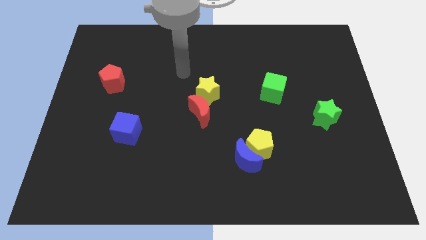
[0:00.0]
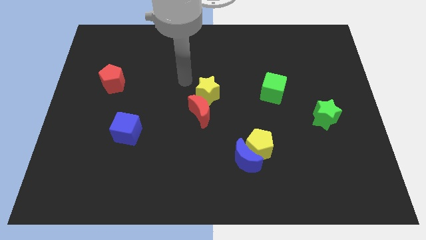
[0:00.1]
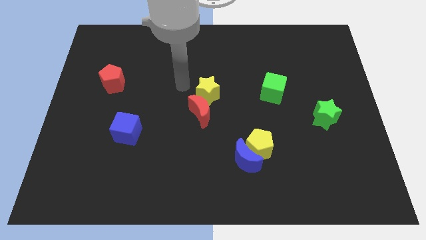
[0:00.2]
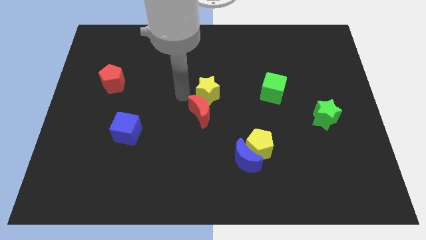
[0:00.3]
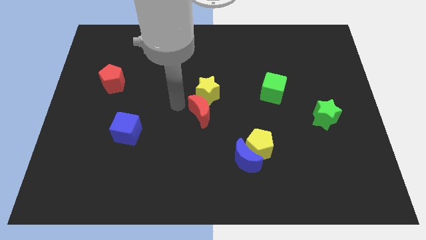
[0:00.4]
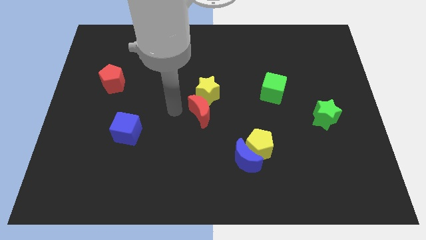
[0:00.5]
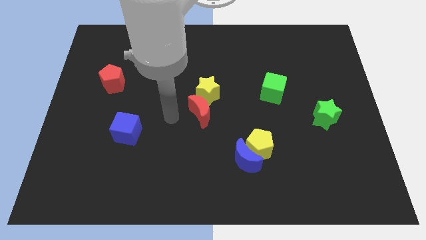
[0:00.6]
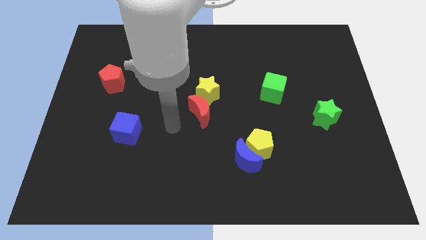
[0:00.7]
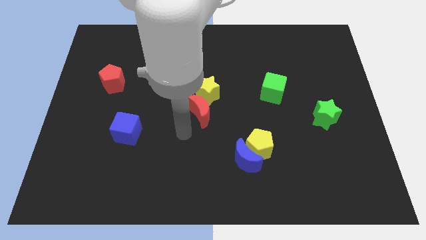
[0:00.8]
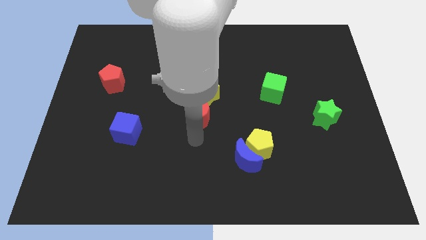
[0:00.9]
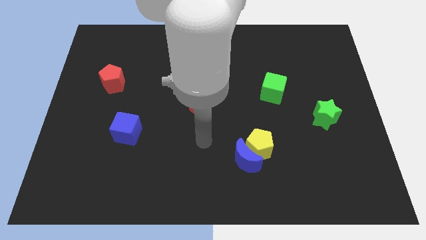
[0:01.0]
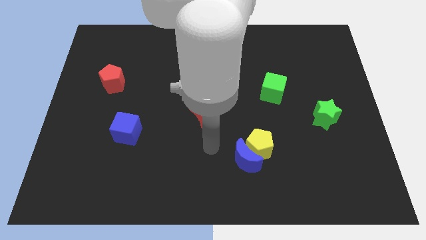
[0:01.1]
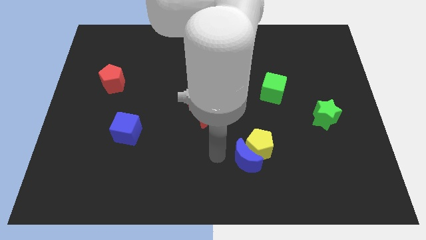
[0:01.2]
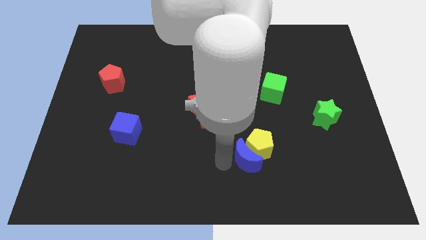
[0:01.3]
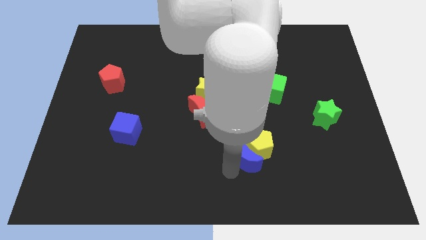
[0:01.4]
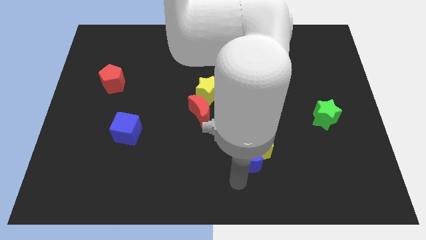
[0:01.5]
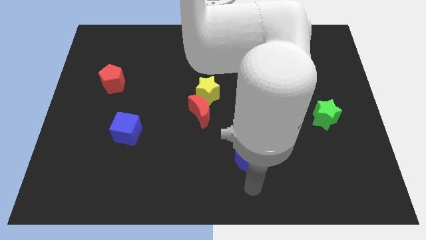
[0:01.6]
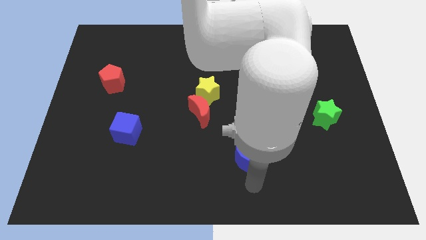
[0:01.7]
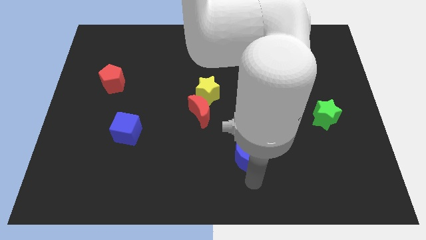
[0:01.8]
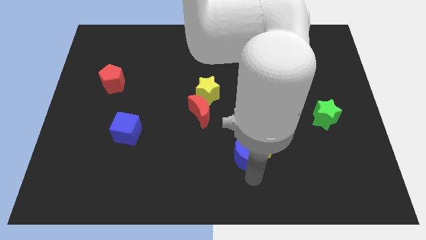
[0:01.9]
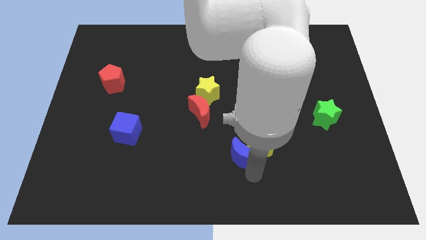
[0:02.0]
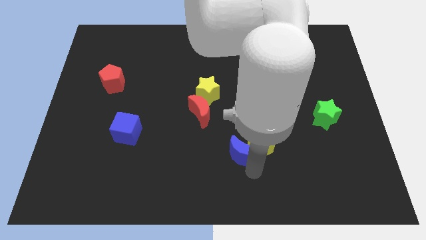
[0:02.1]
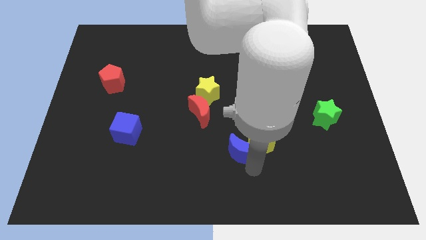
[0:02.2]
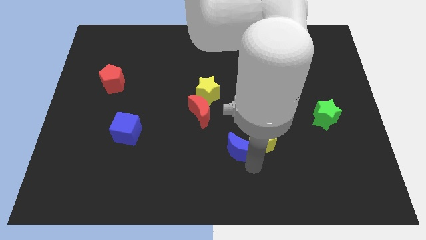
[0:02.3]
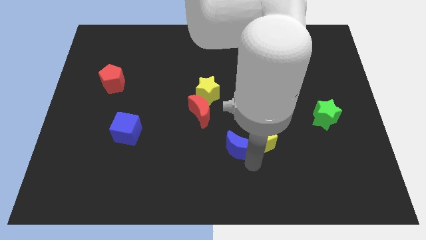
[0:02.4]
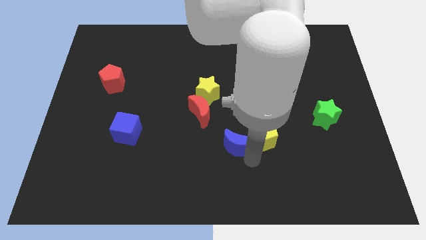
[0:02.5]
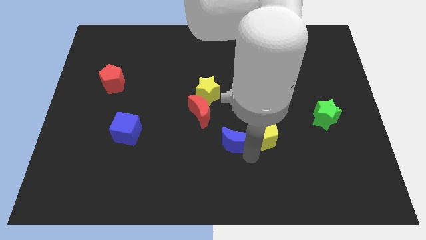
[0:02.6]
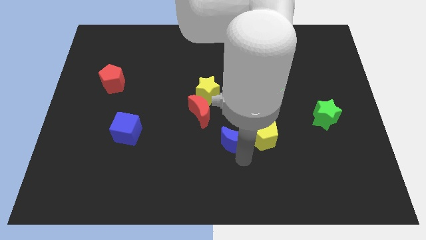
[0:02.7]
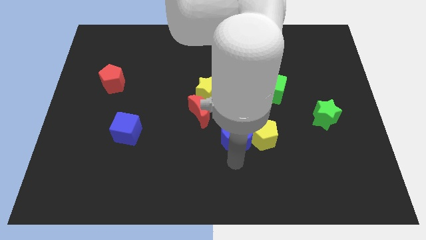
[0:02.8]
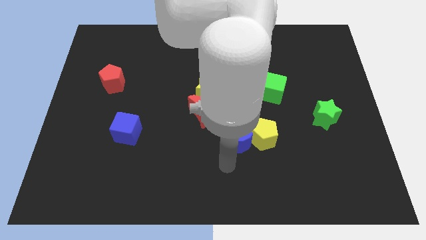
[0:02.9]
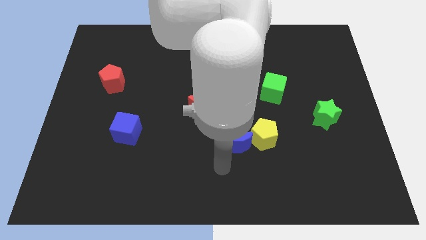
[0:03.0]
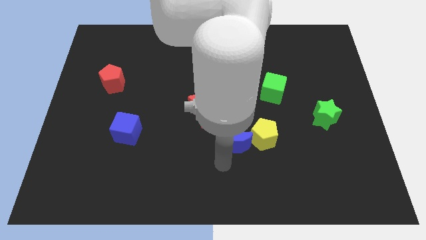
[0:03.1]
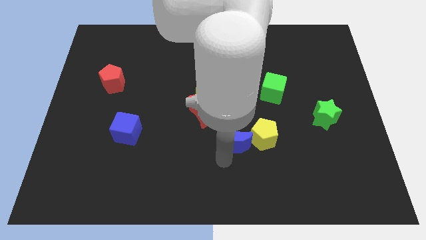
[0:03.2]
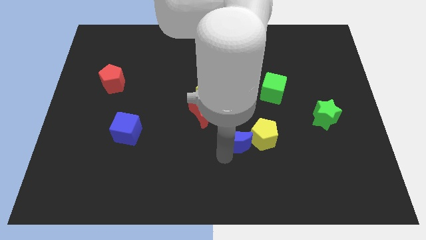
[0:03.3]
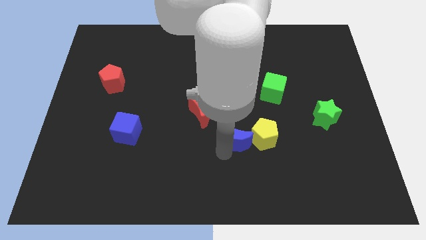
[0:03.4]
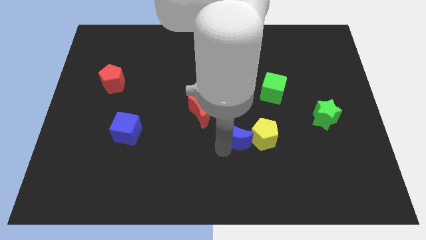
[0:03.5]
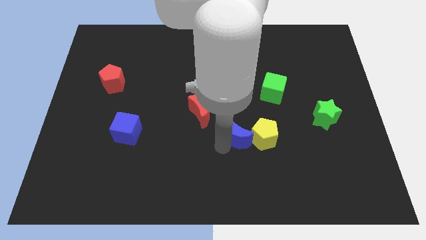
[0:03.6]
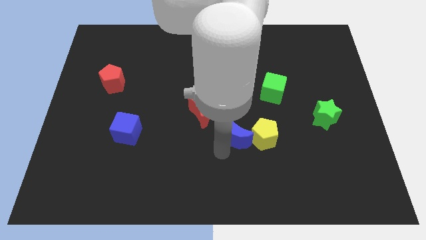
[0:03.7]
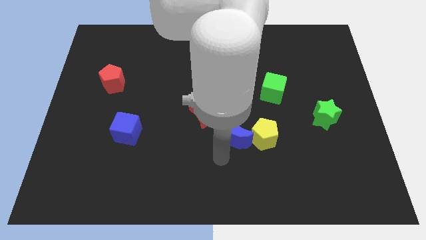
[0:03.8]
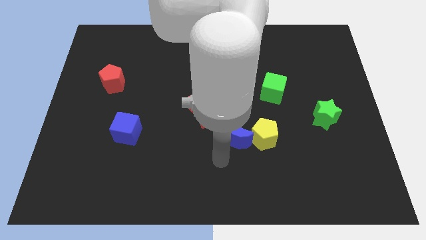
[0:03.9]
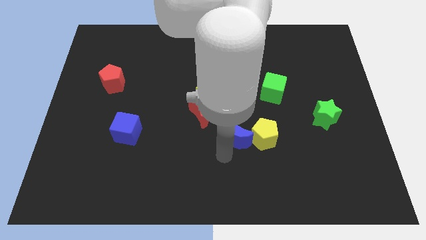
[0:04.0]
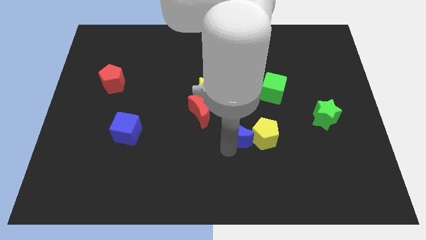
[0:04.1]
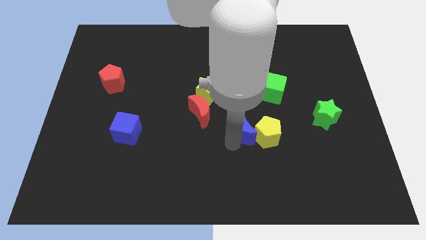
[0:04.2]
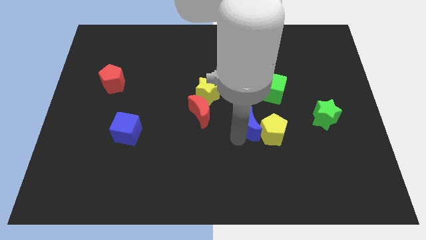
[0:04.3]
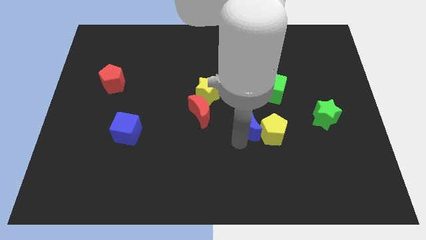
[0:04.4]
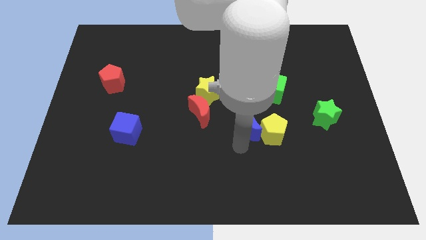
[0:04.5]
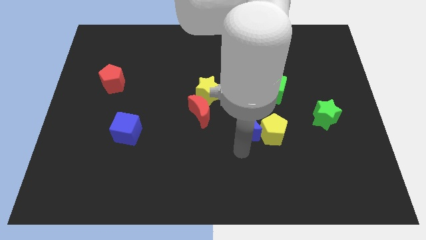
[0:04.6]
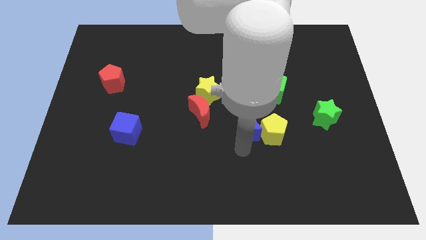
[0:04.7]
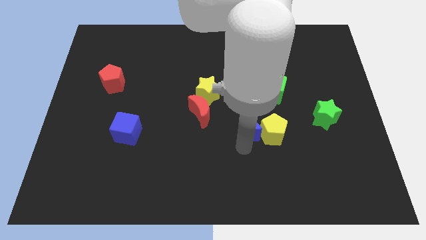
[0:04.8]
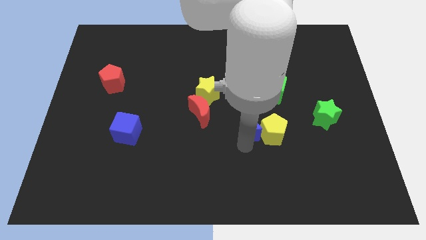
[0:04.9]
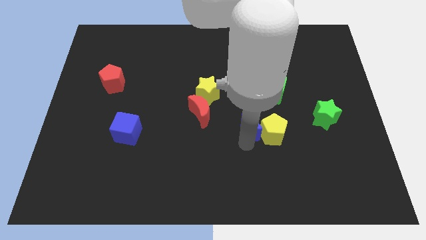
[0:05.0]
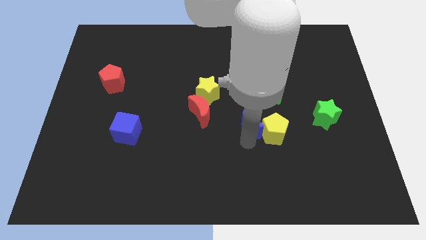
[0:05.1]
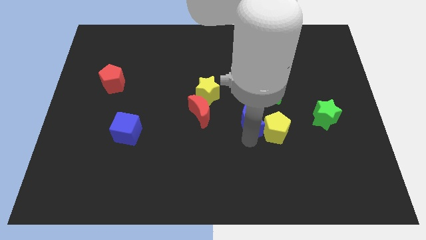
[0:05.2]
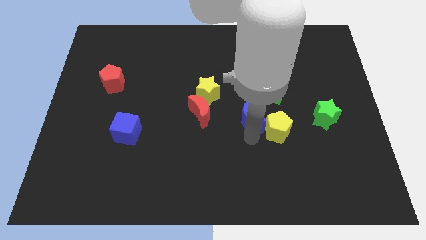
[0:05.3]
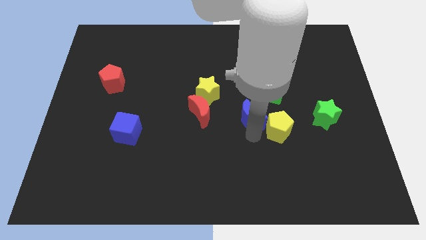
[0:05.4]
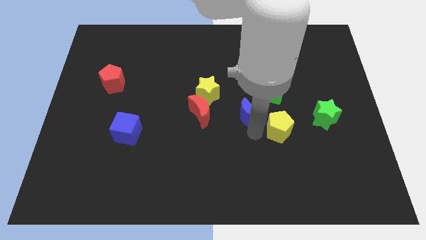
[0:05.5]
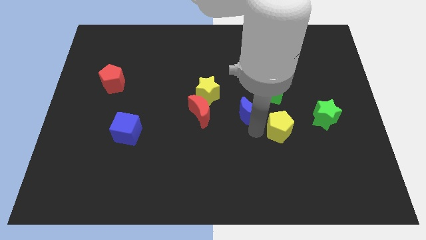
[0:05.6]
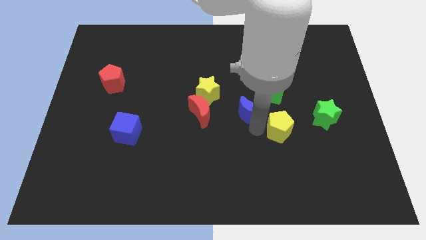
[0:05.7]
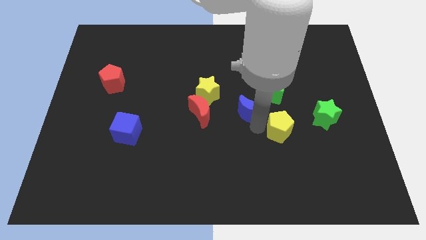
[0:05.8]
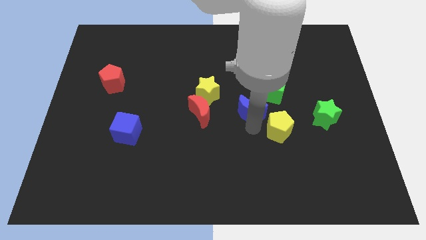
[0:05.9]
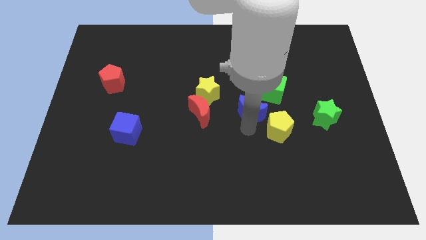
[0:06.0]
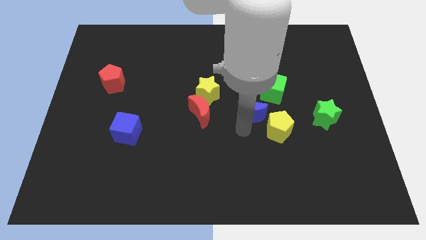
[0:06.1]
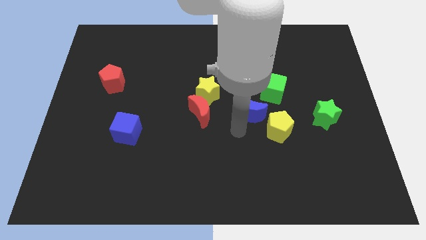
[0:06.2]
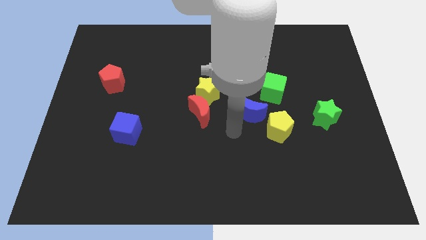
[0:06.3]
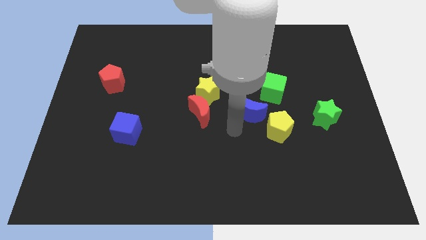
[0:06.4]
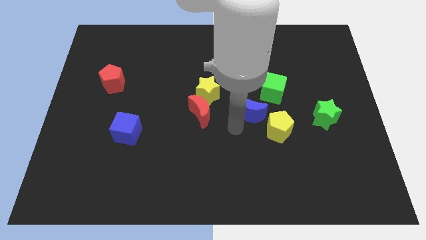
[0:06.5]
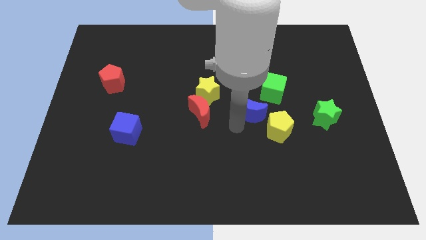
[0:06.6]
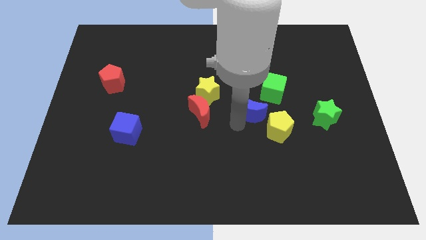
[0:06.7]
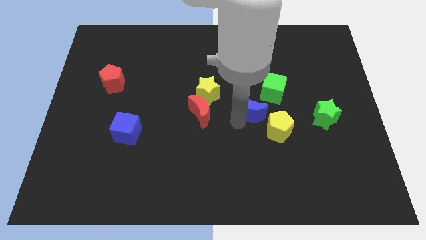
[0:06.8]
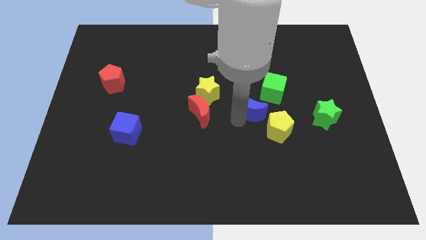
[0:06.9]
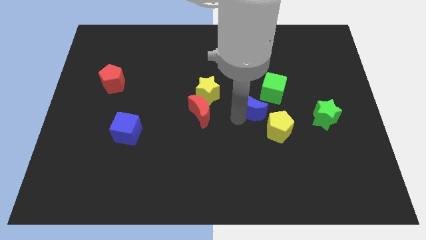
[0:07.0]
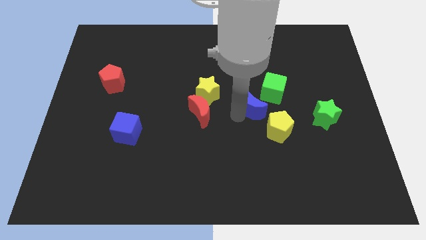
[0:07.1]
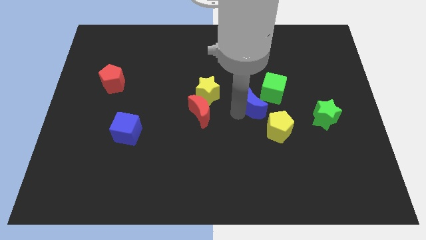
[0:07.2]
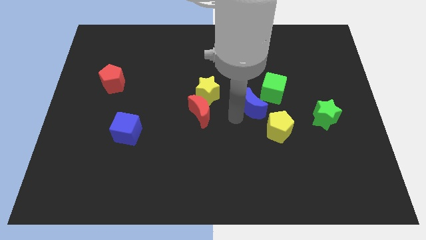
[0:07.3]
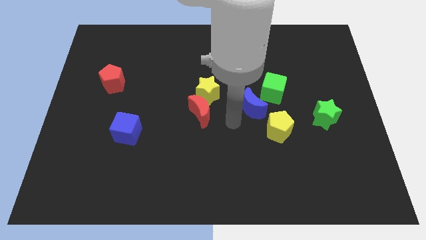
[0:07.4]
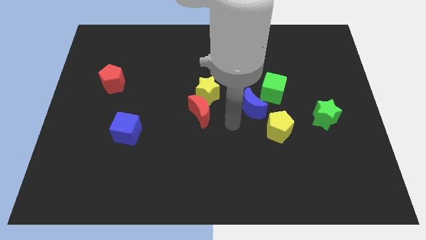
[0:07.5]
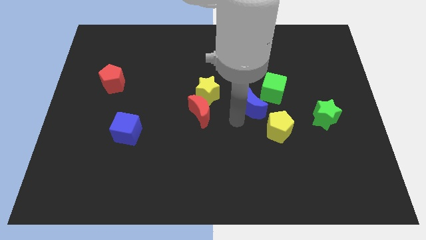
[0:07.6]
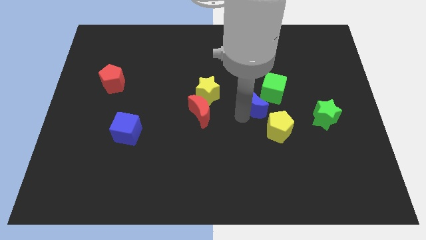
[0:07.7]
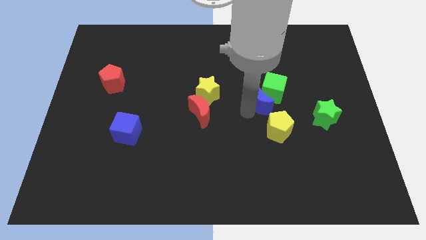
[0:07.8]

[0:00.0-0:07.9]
put the blue moon next to the green cube
